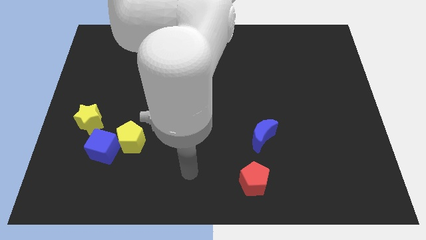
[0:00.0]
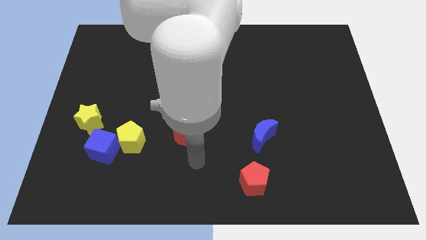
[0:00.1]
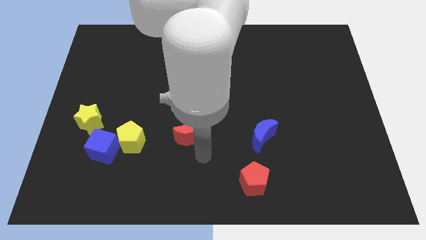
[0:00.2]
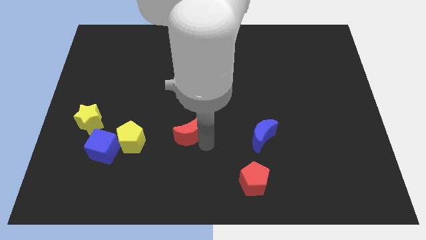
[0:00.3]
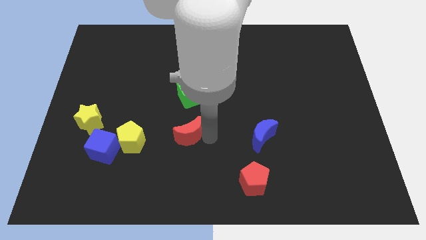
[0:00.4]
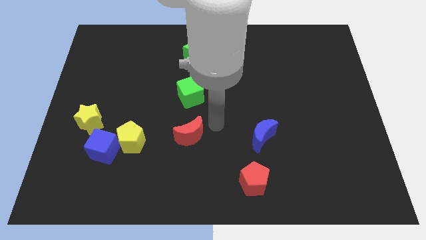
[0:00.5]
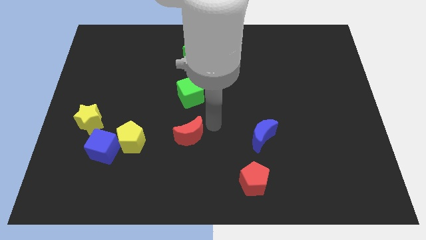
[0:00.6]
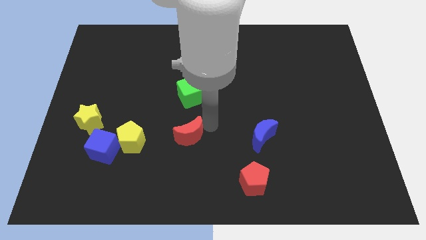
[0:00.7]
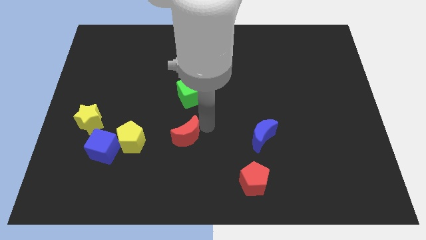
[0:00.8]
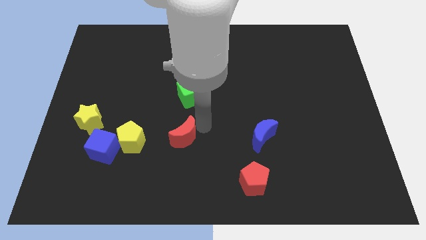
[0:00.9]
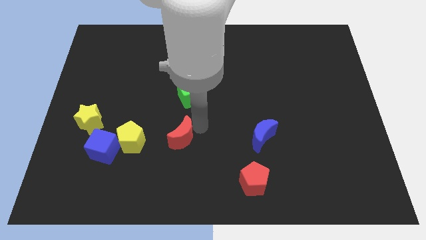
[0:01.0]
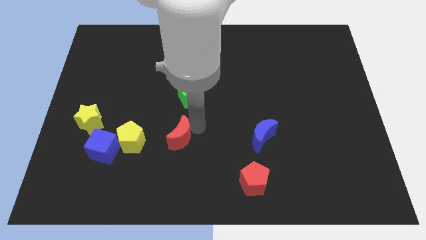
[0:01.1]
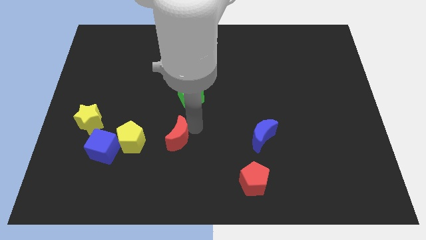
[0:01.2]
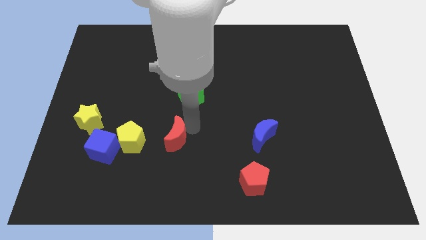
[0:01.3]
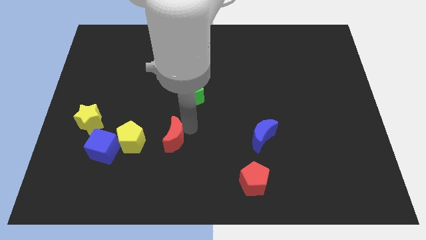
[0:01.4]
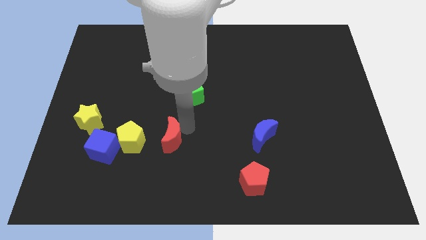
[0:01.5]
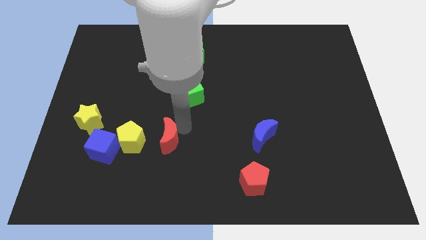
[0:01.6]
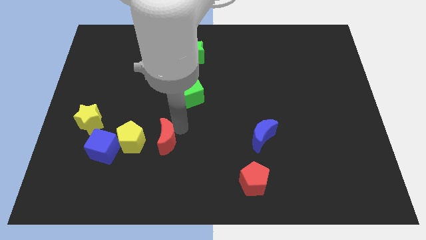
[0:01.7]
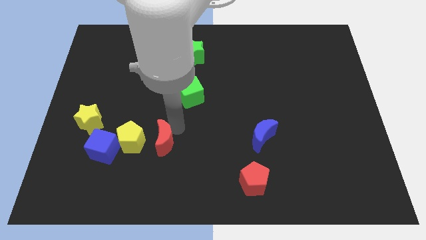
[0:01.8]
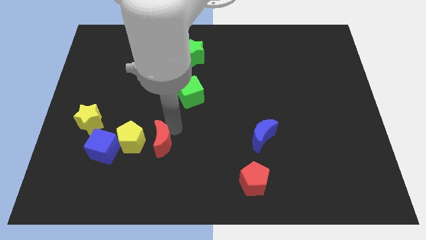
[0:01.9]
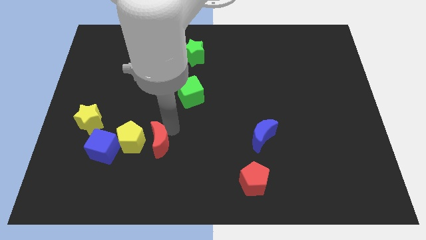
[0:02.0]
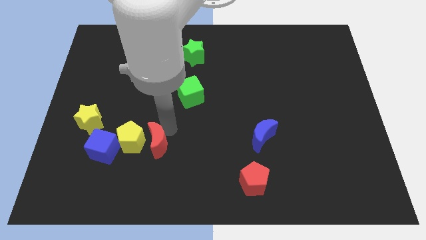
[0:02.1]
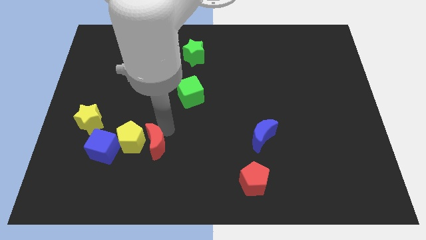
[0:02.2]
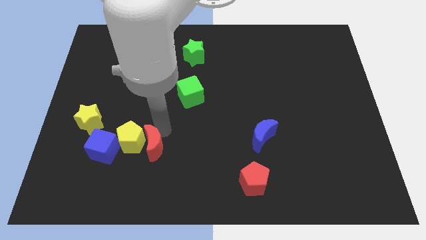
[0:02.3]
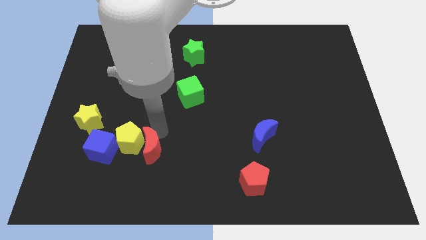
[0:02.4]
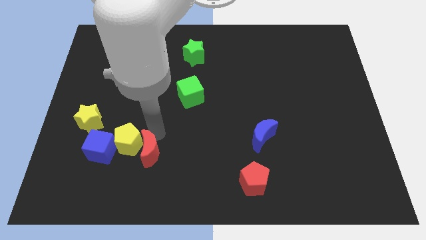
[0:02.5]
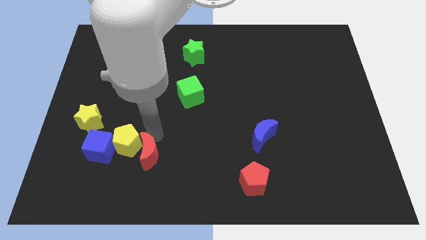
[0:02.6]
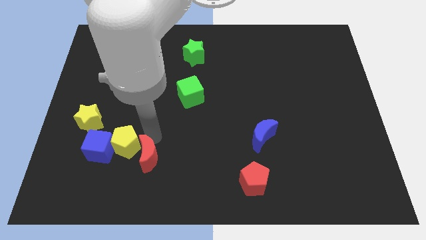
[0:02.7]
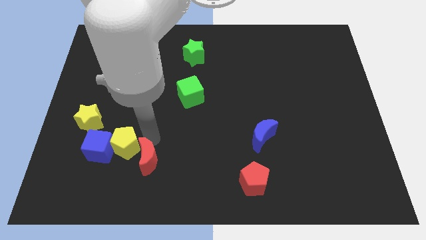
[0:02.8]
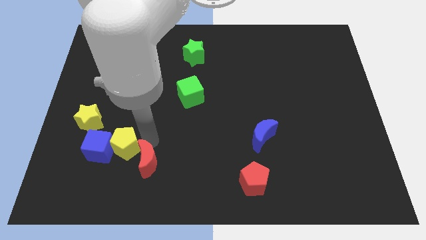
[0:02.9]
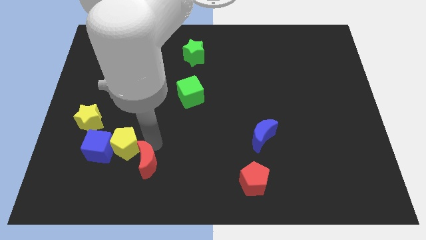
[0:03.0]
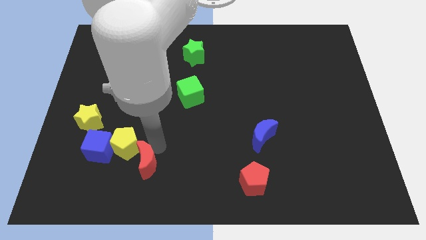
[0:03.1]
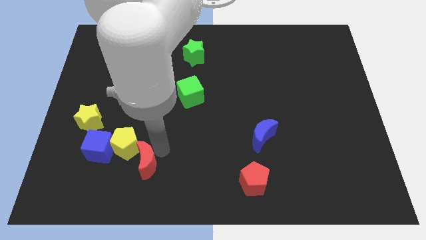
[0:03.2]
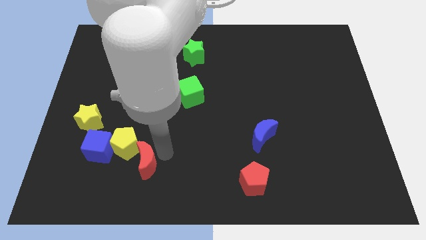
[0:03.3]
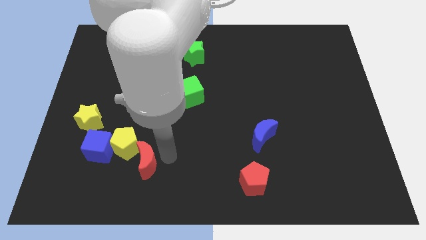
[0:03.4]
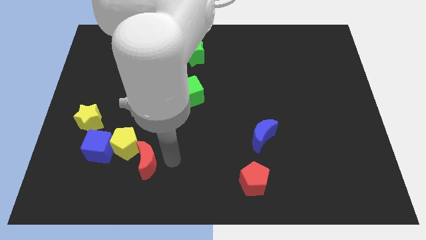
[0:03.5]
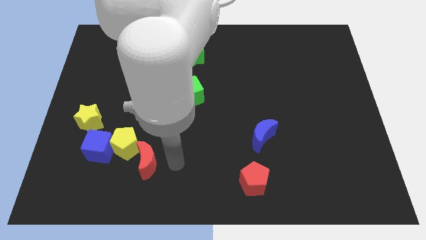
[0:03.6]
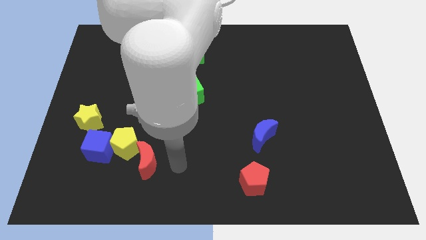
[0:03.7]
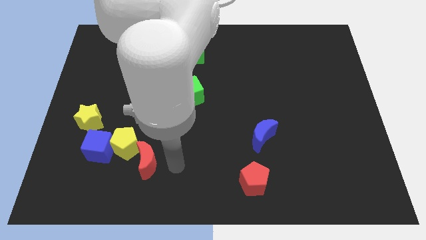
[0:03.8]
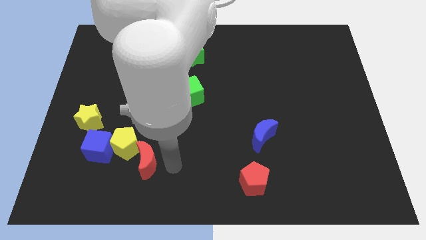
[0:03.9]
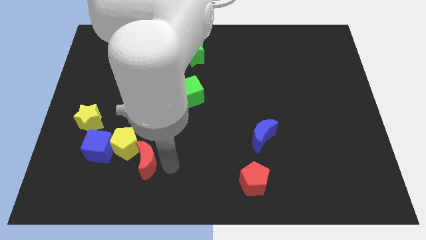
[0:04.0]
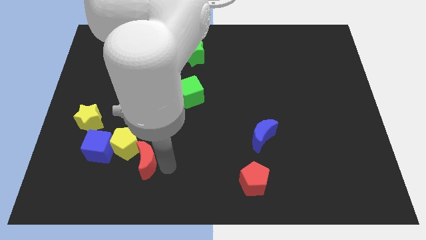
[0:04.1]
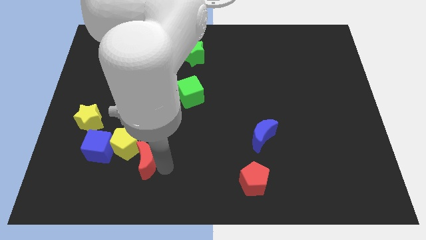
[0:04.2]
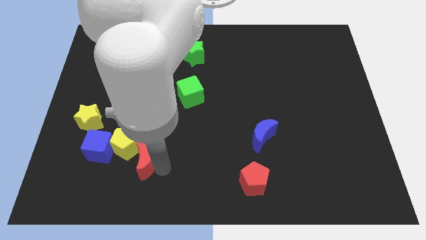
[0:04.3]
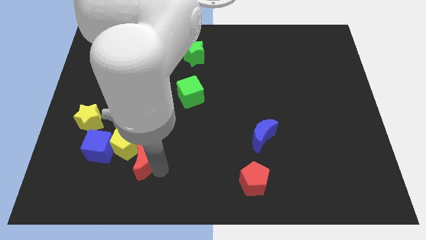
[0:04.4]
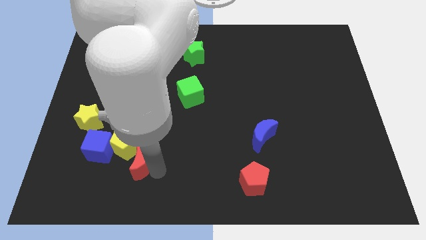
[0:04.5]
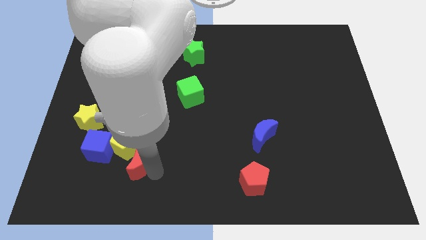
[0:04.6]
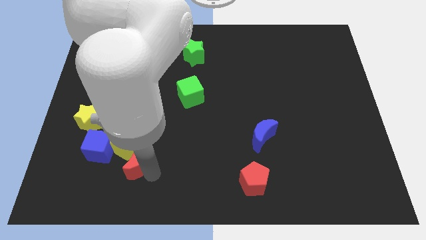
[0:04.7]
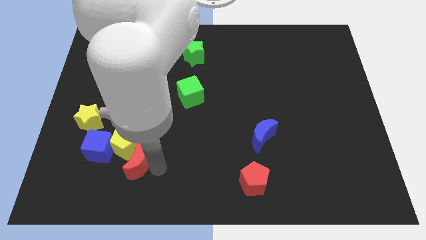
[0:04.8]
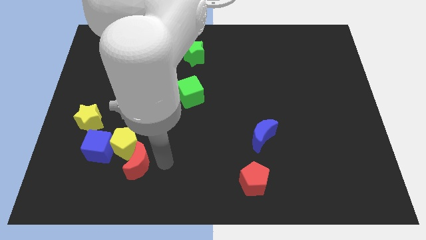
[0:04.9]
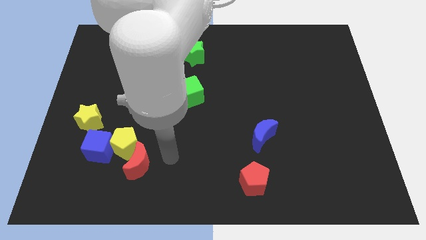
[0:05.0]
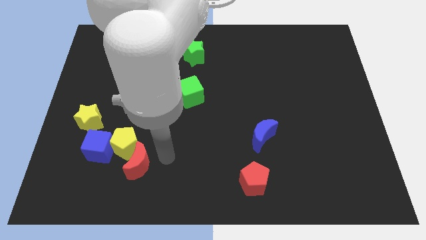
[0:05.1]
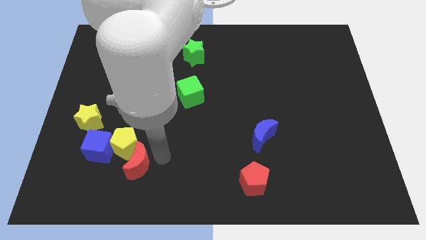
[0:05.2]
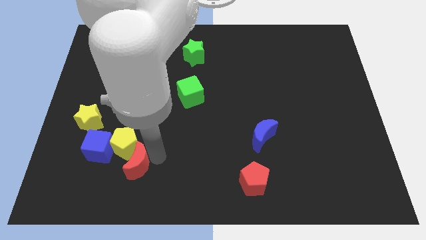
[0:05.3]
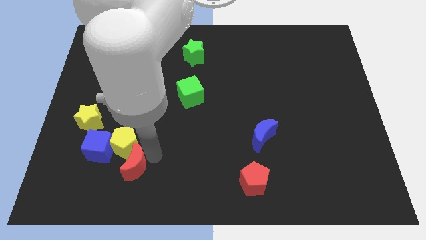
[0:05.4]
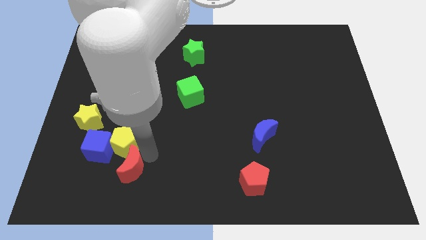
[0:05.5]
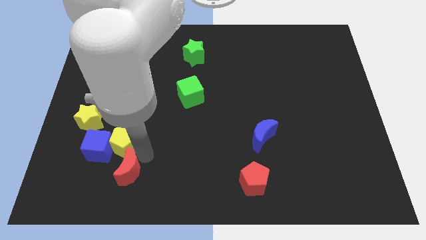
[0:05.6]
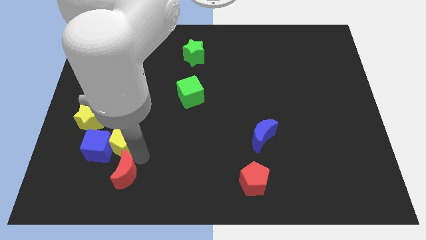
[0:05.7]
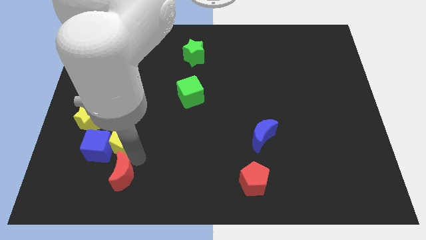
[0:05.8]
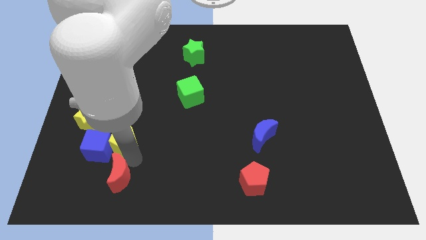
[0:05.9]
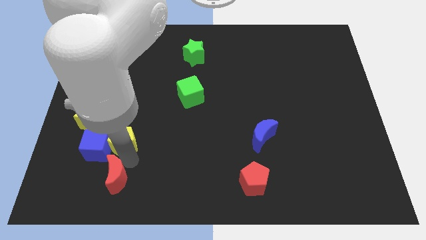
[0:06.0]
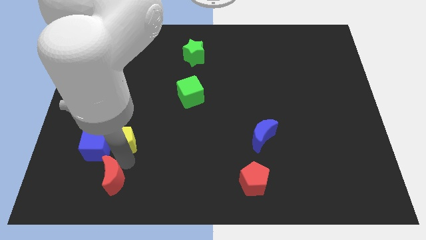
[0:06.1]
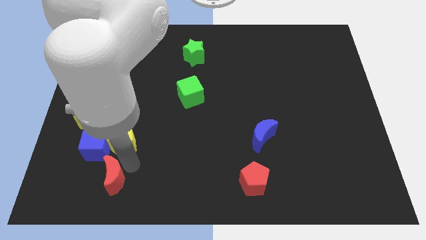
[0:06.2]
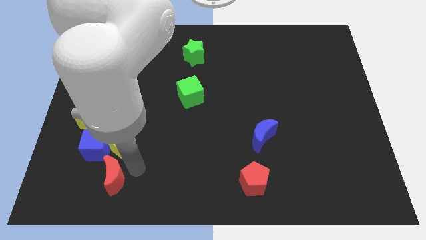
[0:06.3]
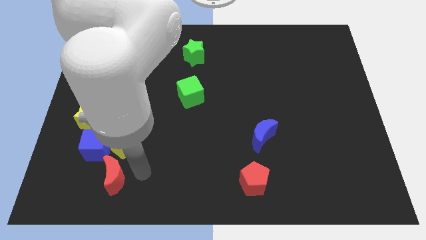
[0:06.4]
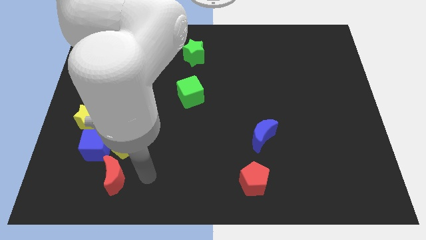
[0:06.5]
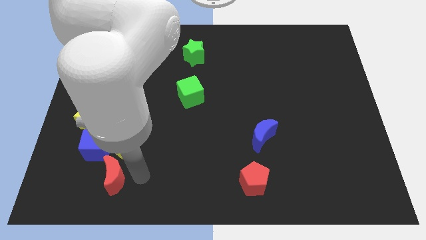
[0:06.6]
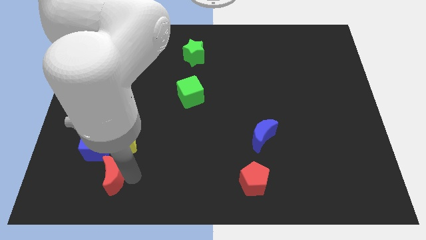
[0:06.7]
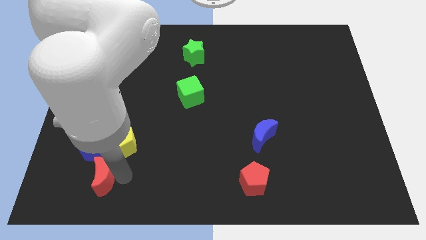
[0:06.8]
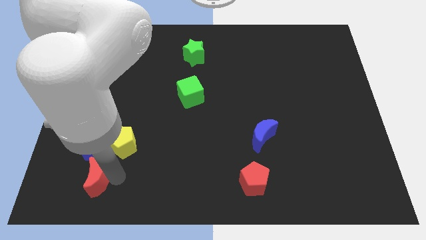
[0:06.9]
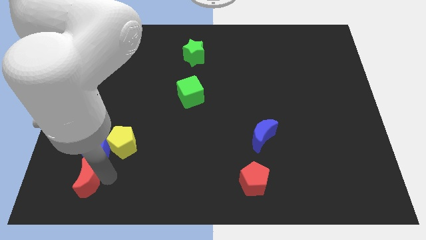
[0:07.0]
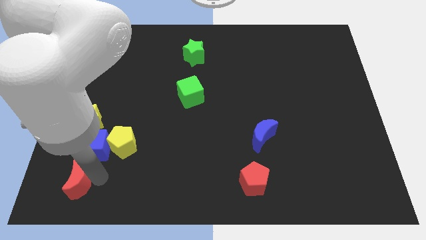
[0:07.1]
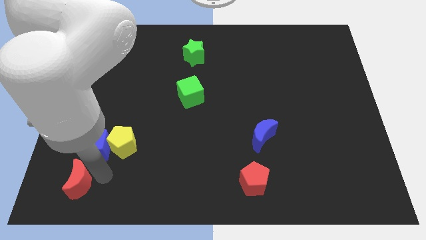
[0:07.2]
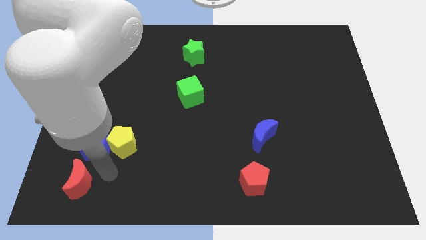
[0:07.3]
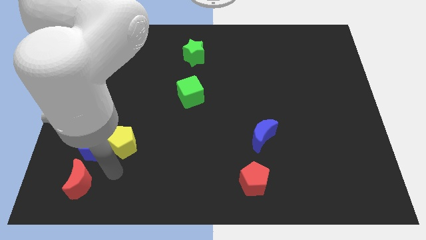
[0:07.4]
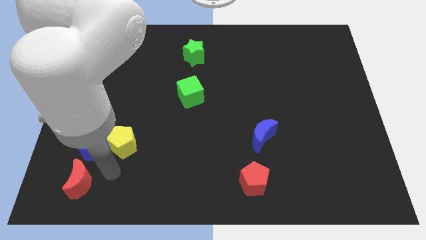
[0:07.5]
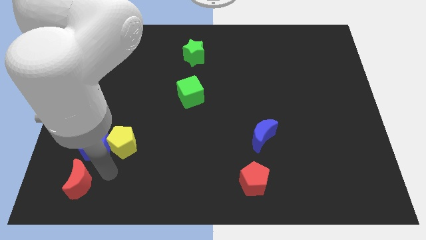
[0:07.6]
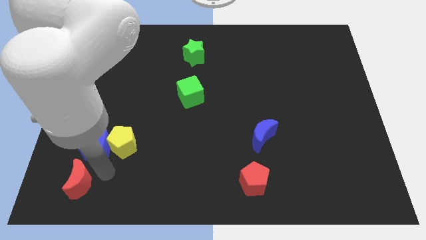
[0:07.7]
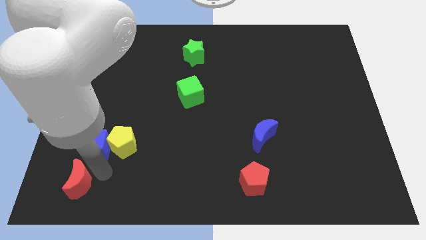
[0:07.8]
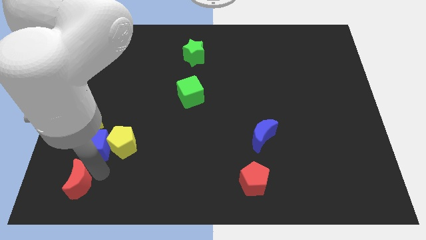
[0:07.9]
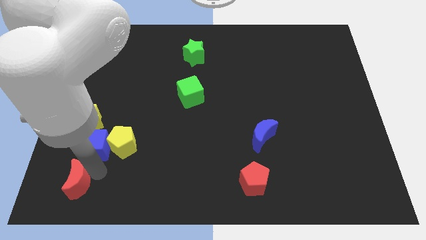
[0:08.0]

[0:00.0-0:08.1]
move the red moon to the bottom left of the board
